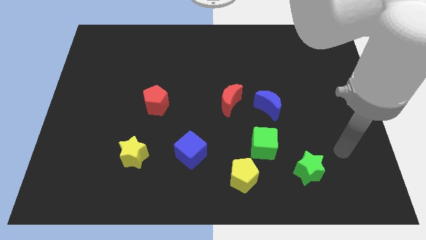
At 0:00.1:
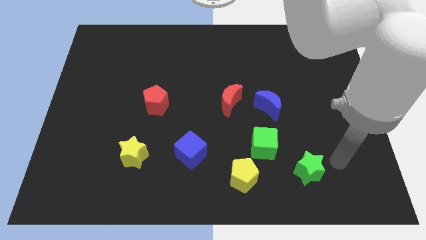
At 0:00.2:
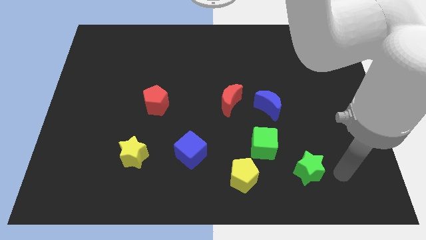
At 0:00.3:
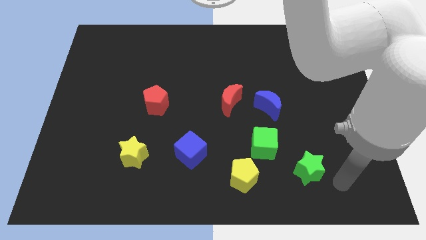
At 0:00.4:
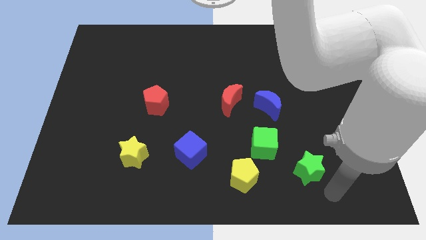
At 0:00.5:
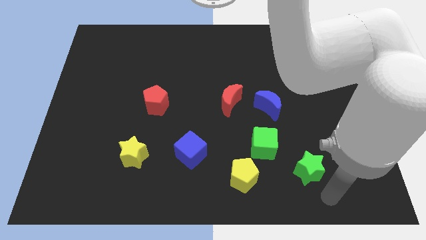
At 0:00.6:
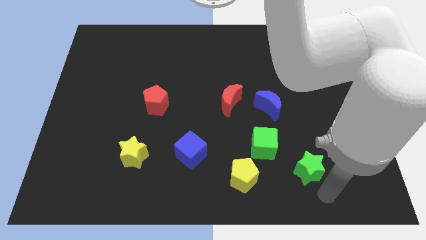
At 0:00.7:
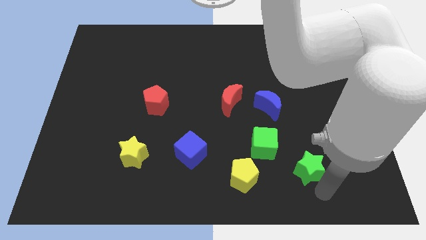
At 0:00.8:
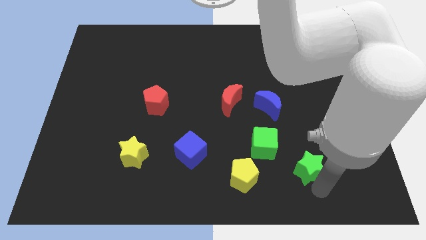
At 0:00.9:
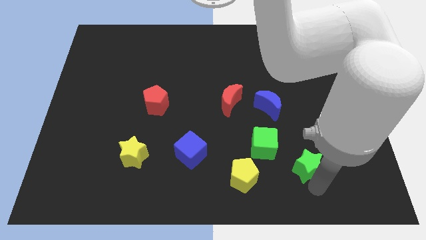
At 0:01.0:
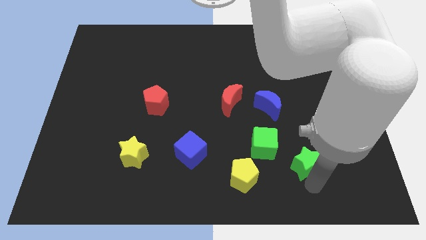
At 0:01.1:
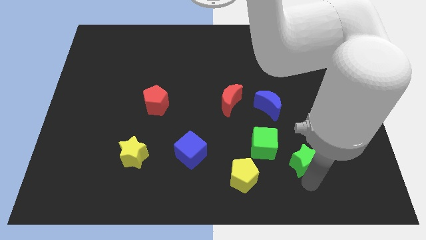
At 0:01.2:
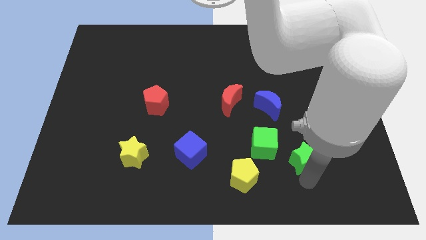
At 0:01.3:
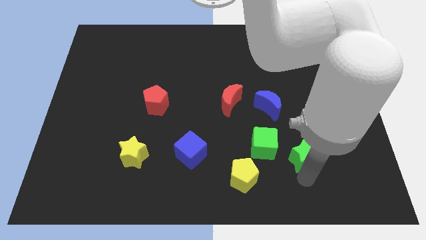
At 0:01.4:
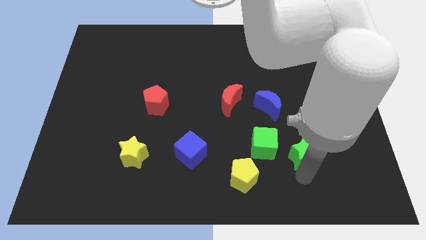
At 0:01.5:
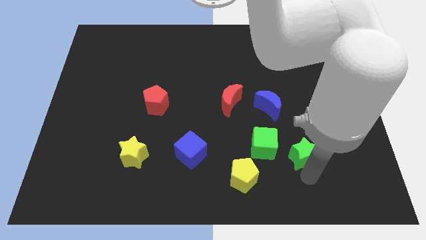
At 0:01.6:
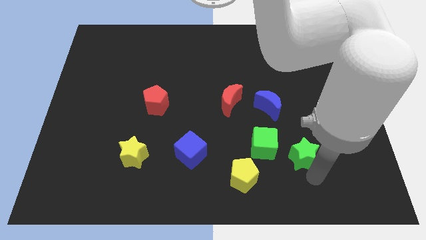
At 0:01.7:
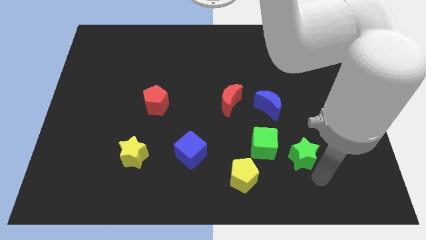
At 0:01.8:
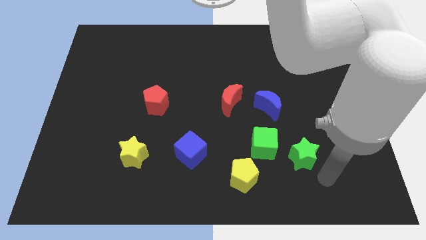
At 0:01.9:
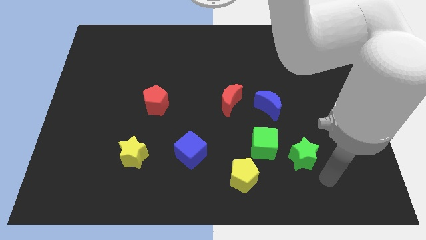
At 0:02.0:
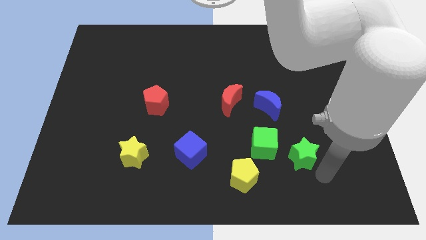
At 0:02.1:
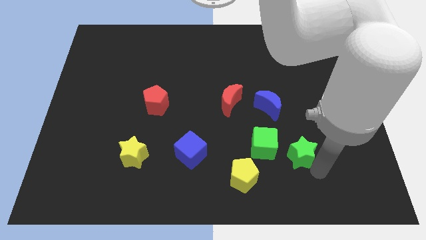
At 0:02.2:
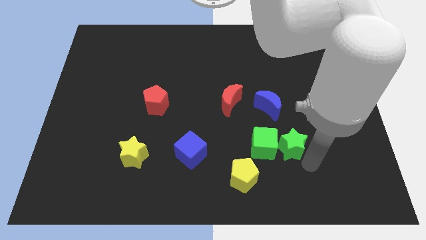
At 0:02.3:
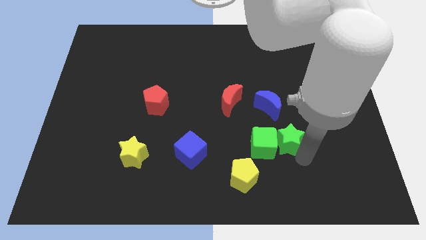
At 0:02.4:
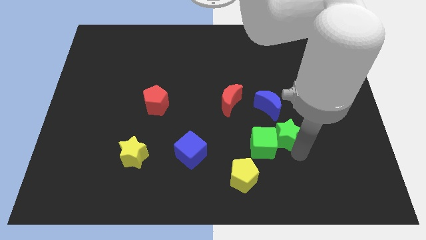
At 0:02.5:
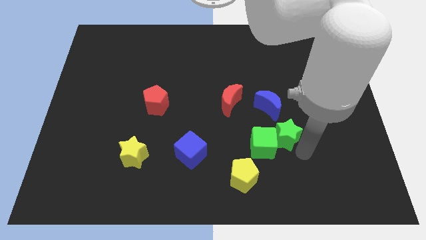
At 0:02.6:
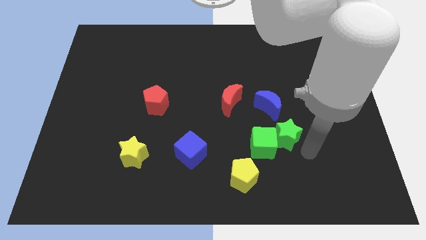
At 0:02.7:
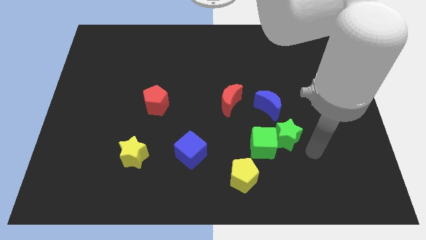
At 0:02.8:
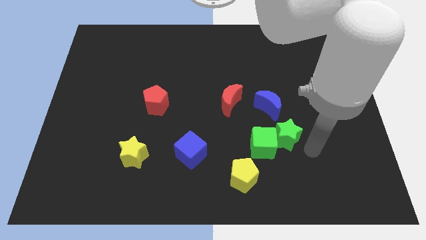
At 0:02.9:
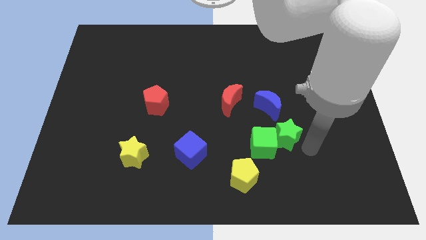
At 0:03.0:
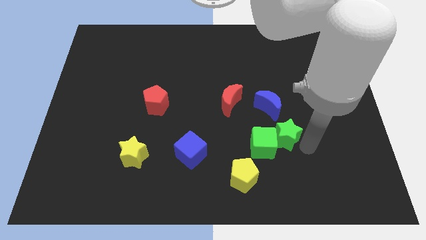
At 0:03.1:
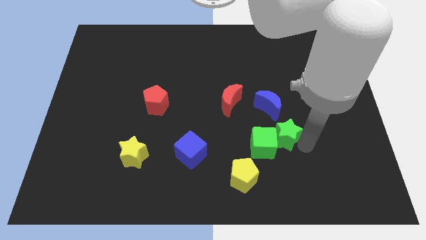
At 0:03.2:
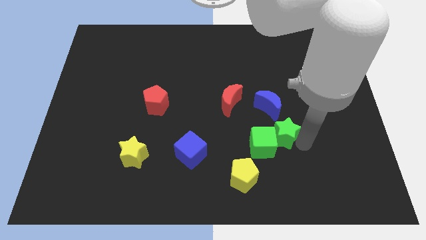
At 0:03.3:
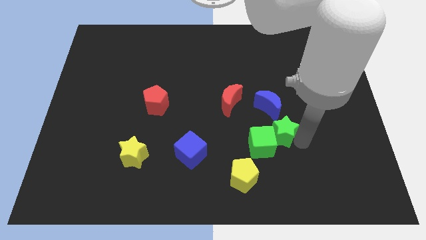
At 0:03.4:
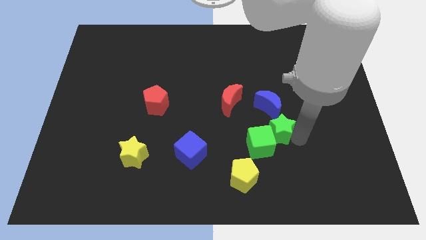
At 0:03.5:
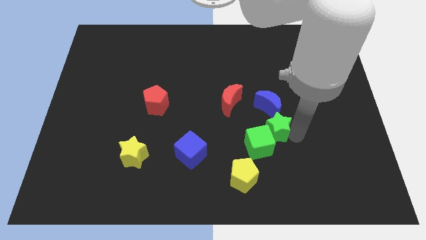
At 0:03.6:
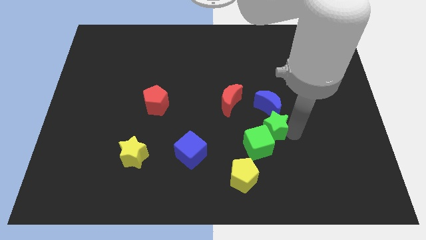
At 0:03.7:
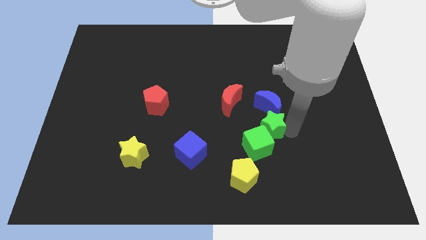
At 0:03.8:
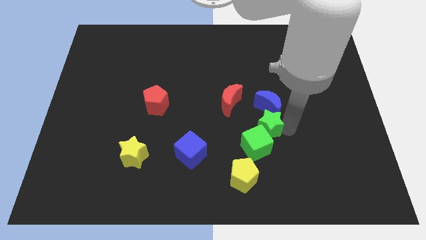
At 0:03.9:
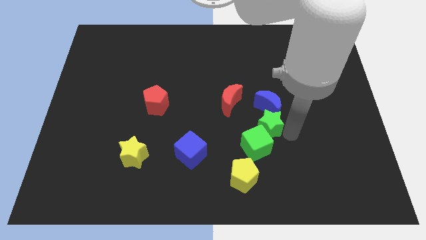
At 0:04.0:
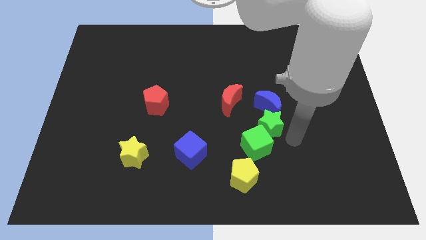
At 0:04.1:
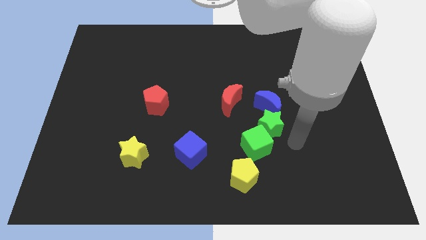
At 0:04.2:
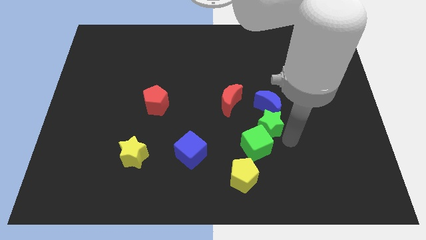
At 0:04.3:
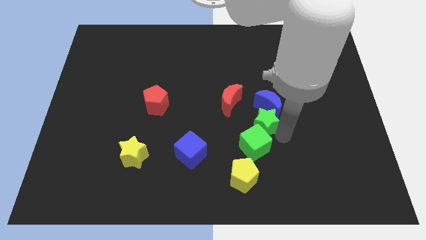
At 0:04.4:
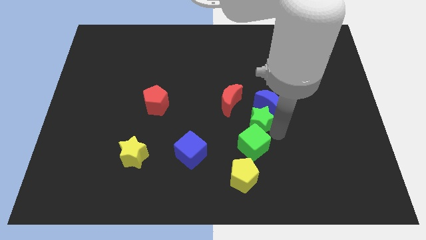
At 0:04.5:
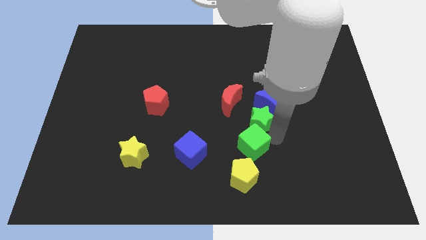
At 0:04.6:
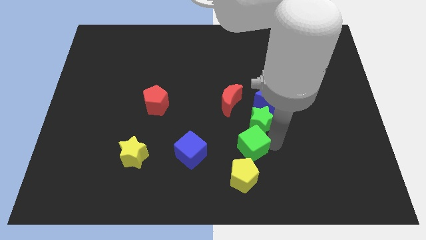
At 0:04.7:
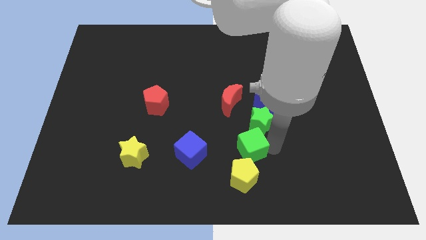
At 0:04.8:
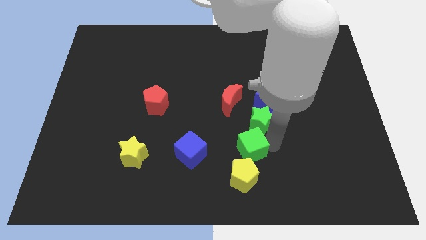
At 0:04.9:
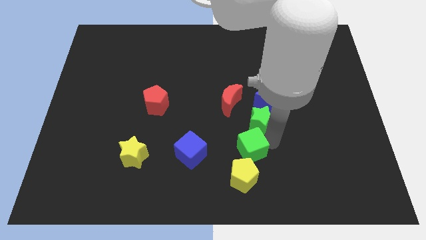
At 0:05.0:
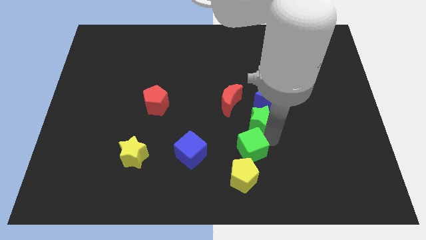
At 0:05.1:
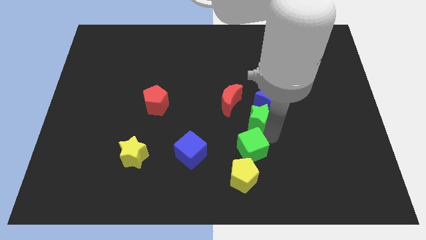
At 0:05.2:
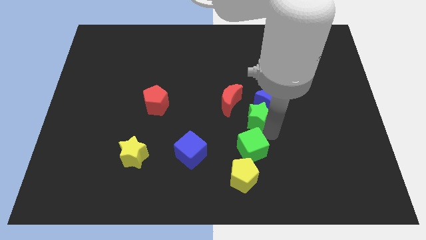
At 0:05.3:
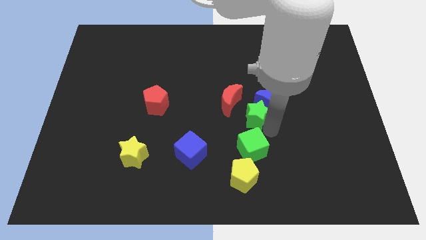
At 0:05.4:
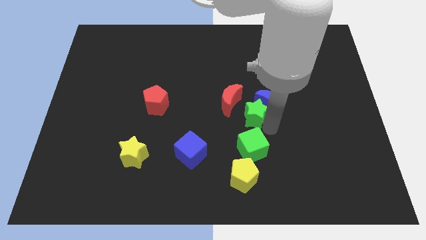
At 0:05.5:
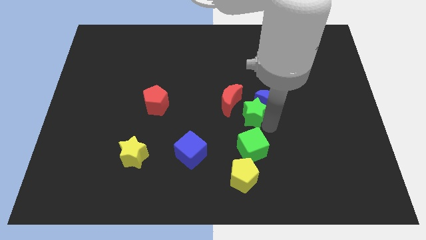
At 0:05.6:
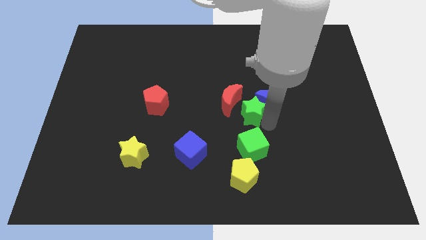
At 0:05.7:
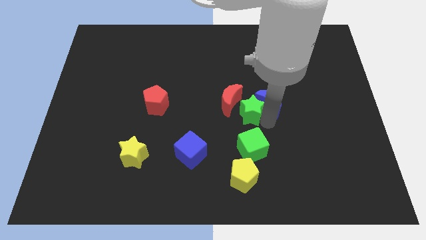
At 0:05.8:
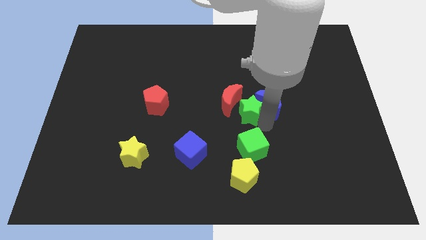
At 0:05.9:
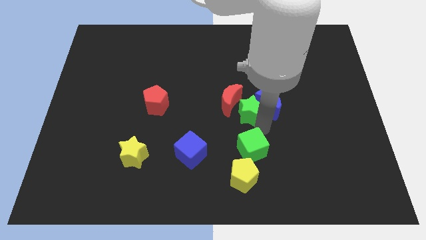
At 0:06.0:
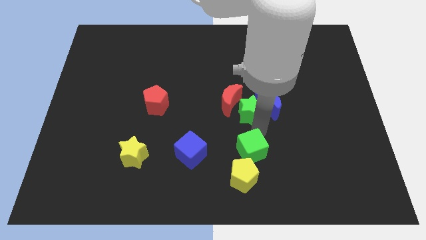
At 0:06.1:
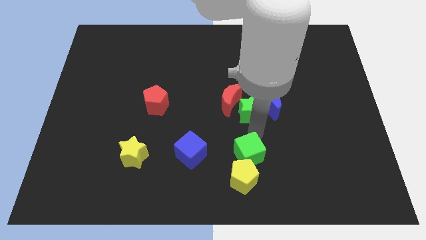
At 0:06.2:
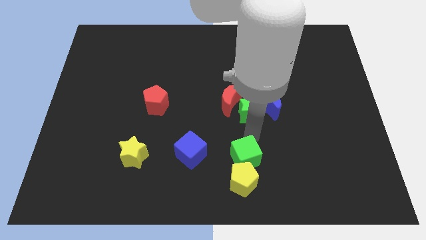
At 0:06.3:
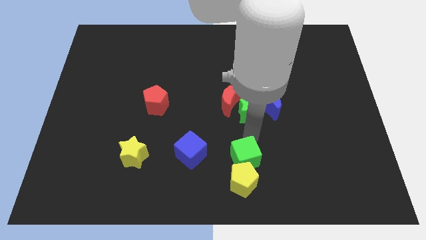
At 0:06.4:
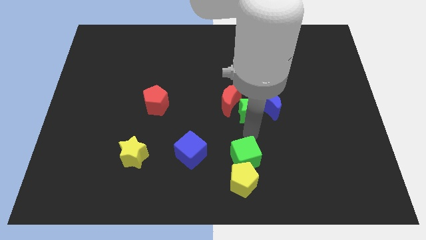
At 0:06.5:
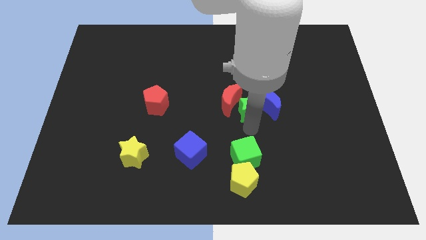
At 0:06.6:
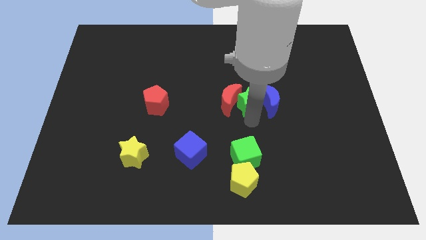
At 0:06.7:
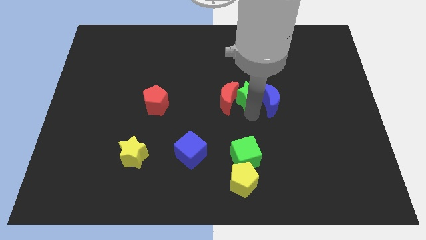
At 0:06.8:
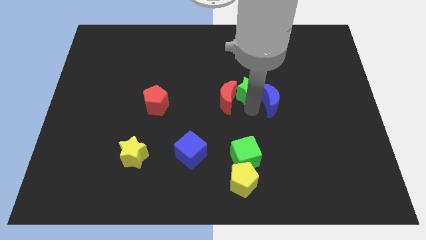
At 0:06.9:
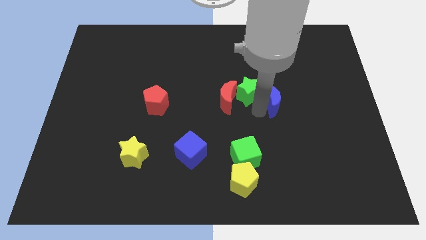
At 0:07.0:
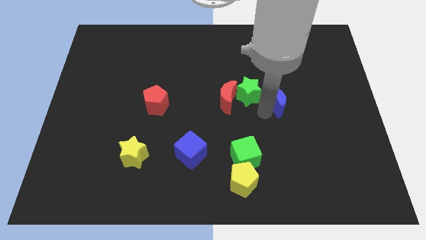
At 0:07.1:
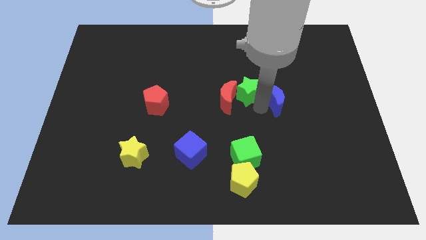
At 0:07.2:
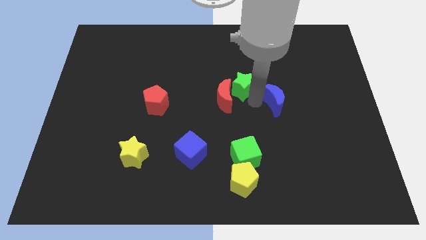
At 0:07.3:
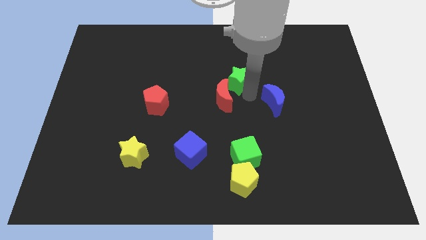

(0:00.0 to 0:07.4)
slide the green star to the top of the red moon

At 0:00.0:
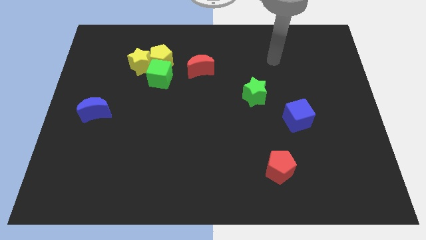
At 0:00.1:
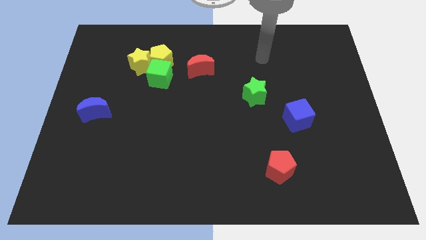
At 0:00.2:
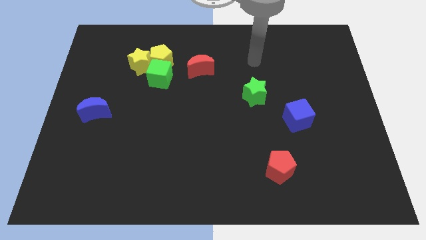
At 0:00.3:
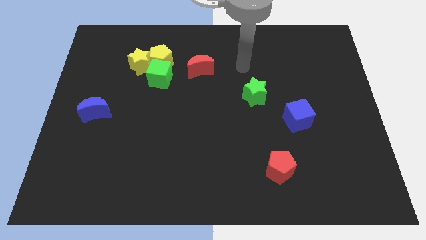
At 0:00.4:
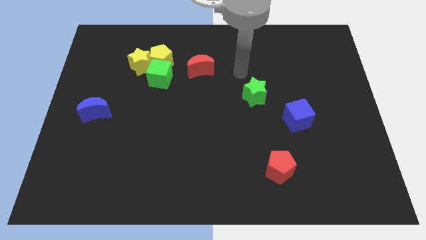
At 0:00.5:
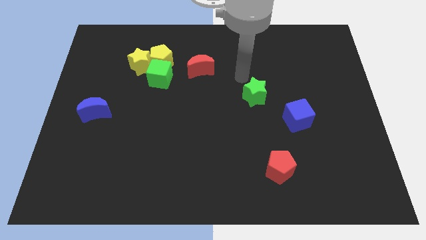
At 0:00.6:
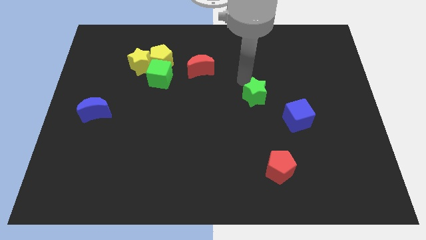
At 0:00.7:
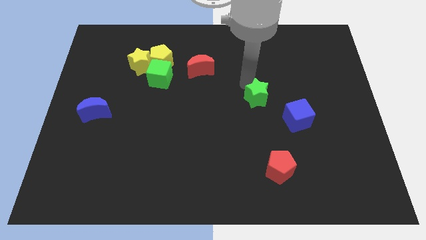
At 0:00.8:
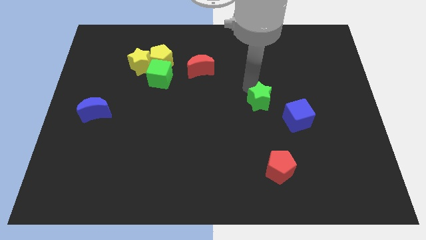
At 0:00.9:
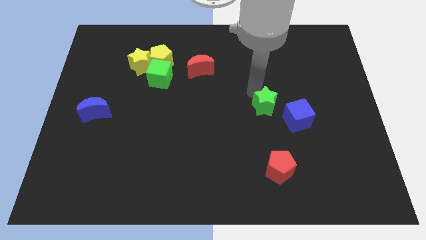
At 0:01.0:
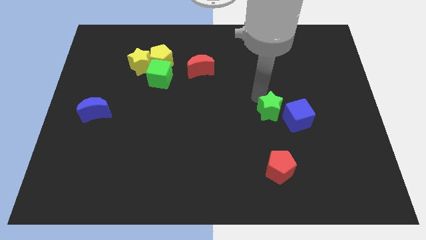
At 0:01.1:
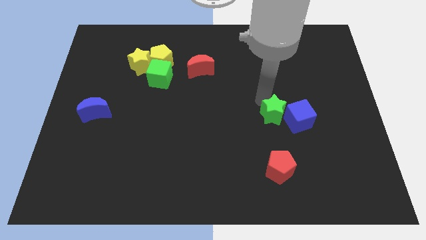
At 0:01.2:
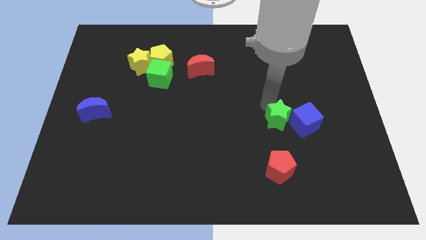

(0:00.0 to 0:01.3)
move the green star to the bottom left side of the blue cube
